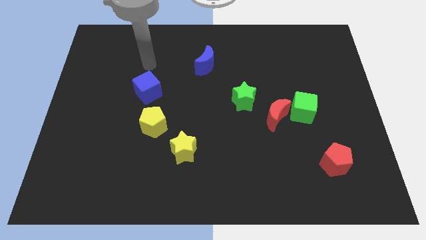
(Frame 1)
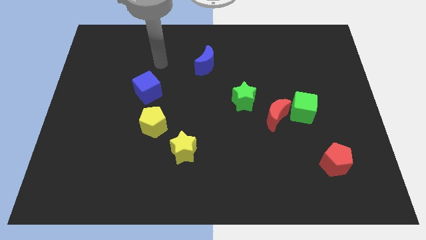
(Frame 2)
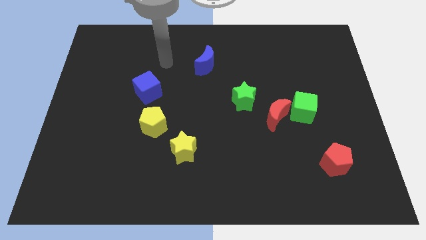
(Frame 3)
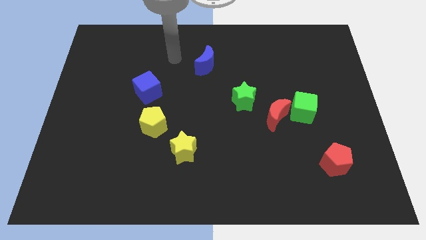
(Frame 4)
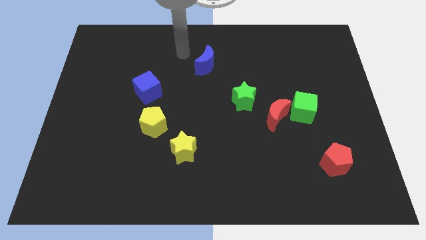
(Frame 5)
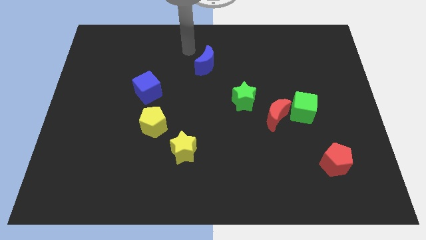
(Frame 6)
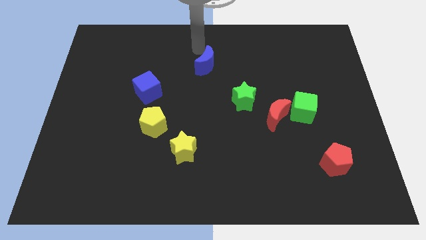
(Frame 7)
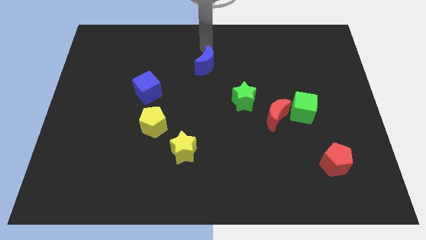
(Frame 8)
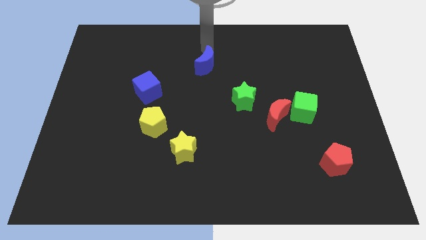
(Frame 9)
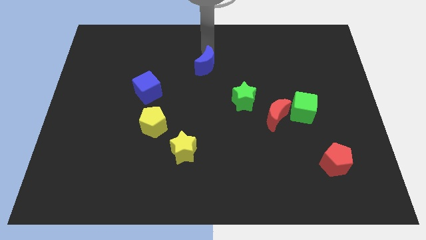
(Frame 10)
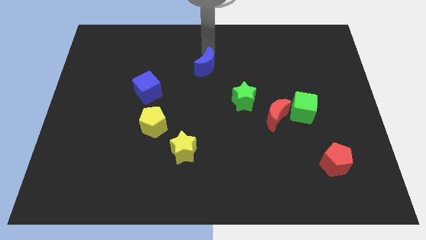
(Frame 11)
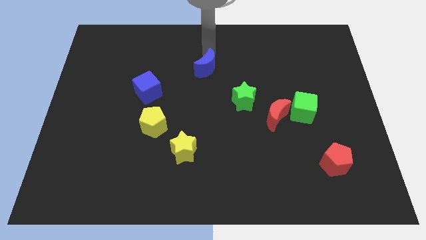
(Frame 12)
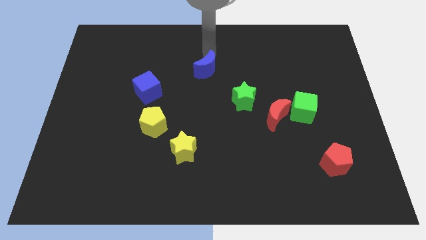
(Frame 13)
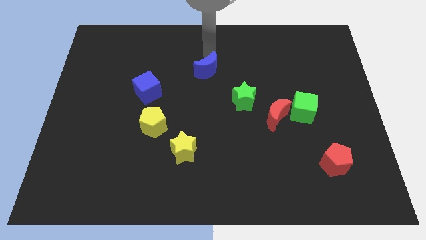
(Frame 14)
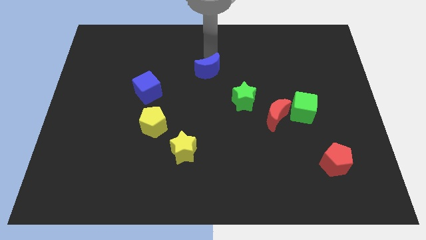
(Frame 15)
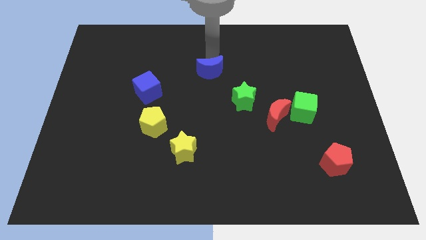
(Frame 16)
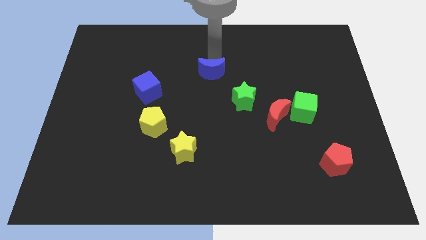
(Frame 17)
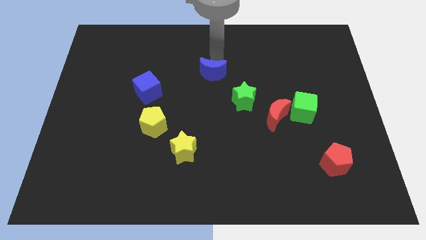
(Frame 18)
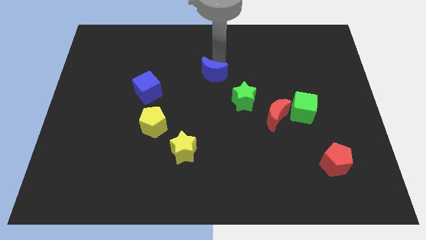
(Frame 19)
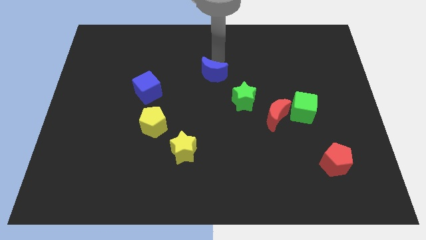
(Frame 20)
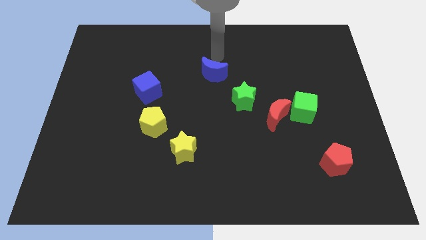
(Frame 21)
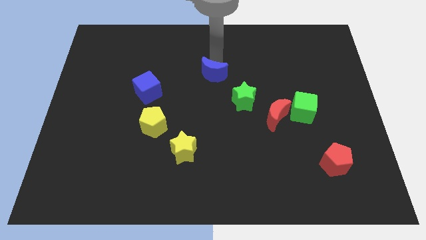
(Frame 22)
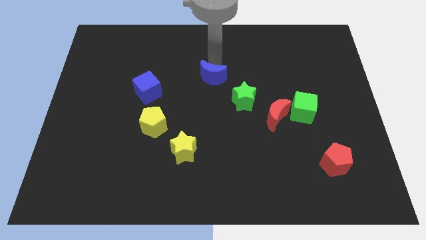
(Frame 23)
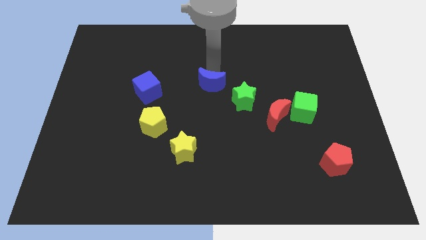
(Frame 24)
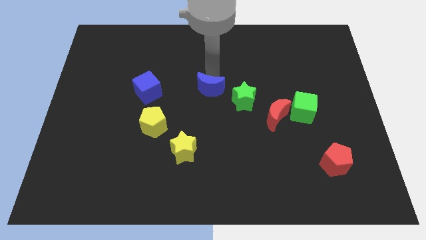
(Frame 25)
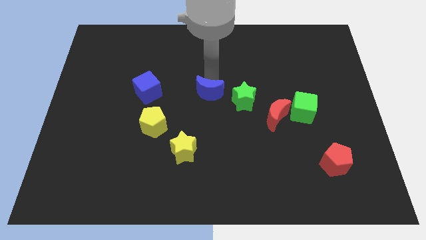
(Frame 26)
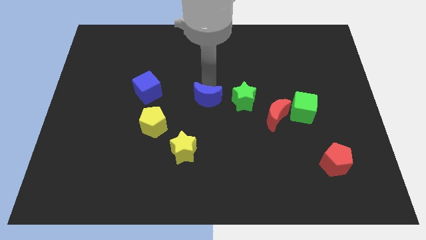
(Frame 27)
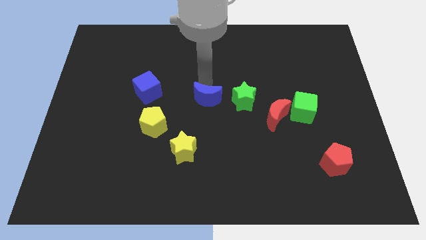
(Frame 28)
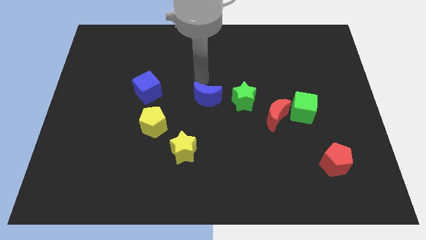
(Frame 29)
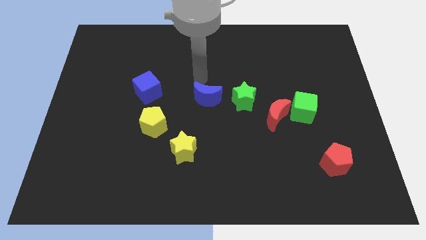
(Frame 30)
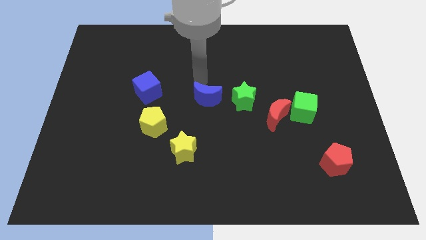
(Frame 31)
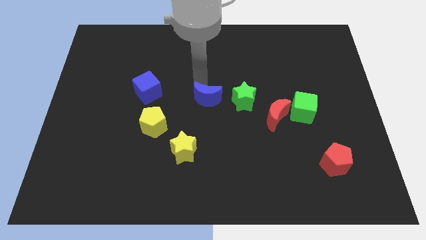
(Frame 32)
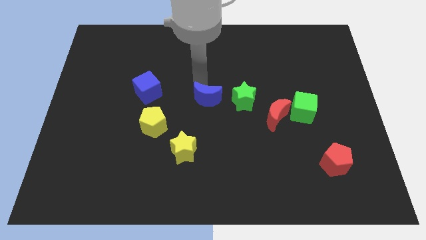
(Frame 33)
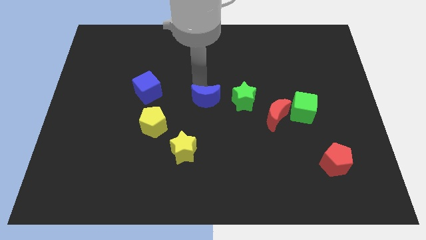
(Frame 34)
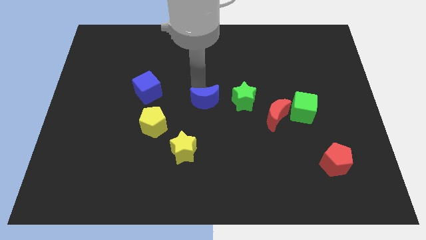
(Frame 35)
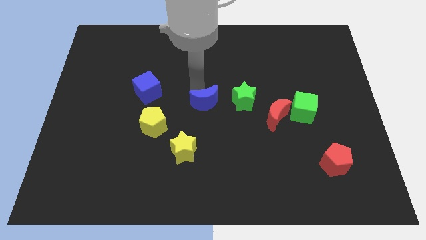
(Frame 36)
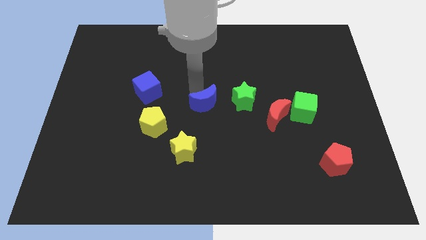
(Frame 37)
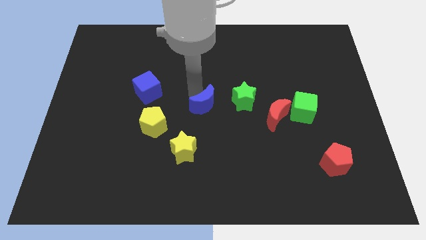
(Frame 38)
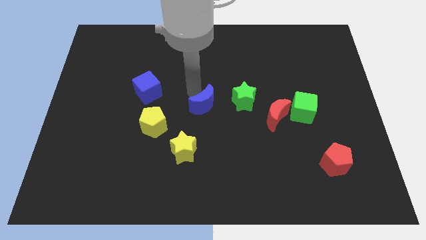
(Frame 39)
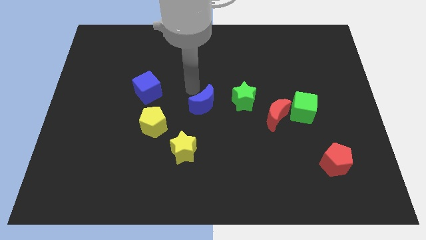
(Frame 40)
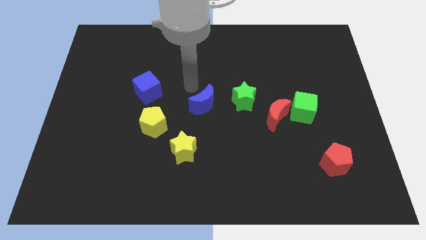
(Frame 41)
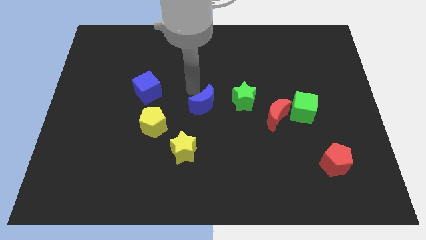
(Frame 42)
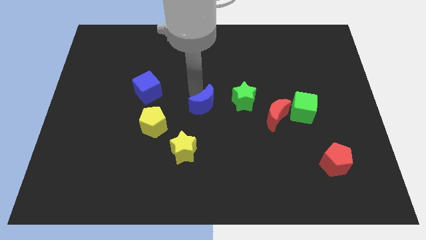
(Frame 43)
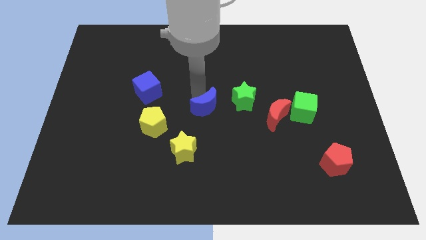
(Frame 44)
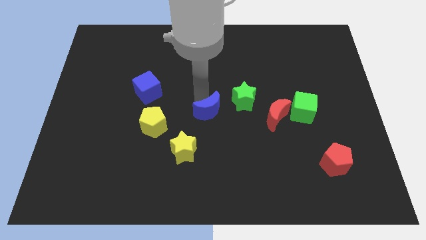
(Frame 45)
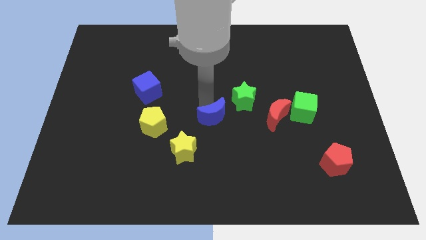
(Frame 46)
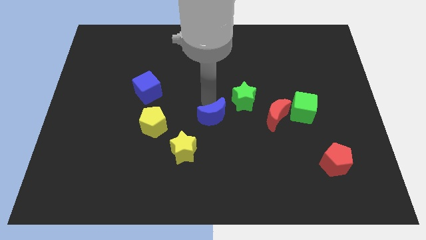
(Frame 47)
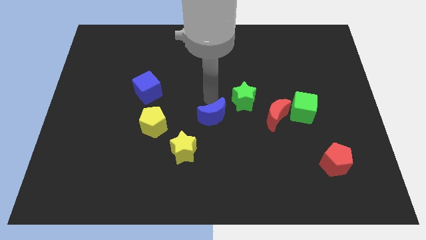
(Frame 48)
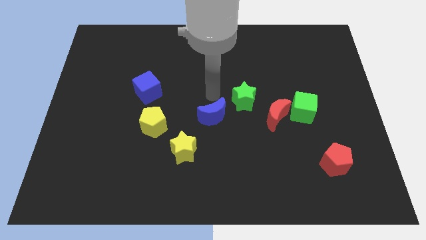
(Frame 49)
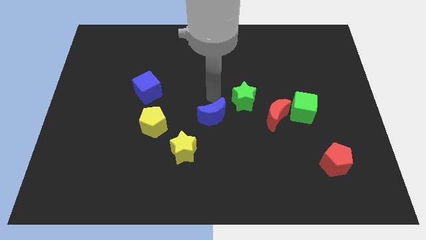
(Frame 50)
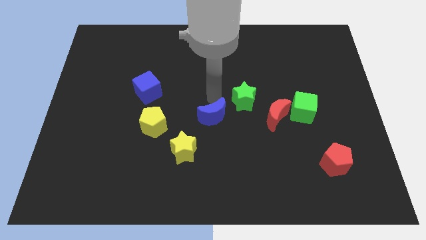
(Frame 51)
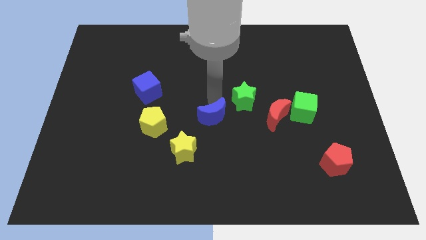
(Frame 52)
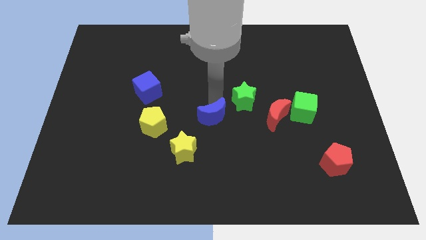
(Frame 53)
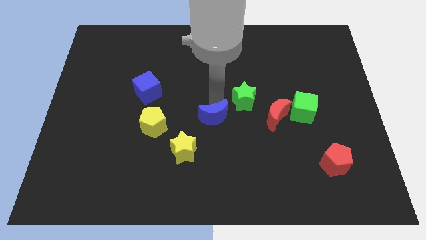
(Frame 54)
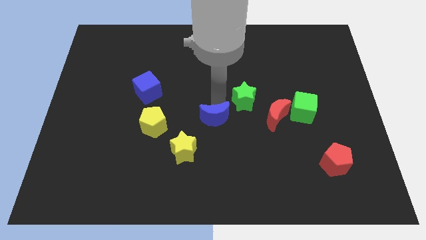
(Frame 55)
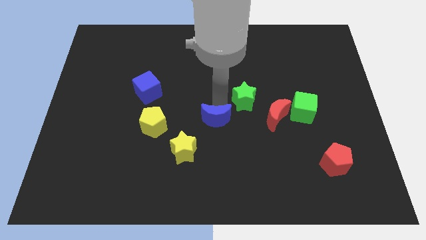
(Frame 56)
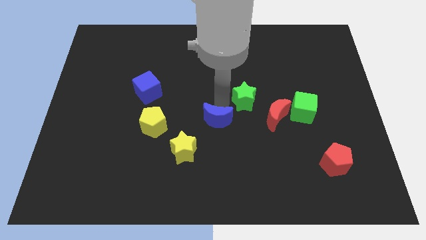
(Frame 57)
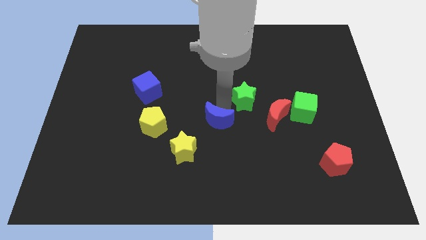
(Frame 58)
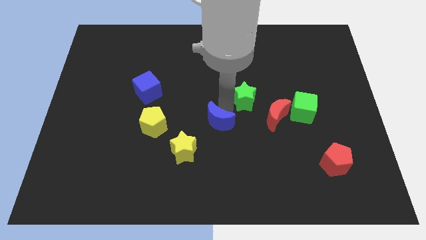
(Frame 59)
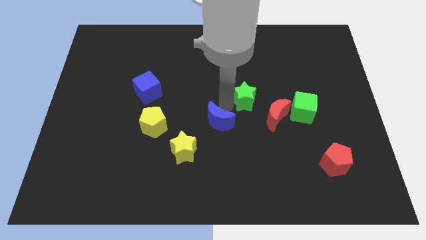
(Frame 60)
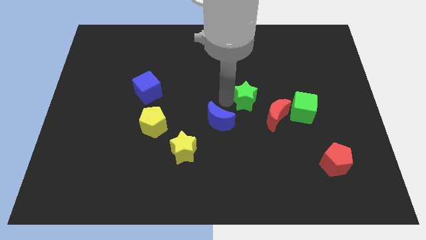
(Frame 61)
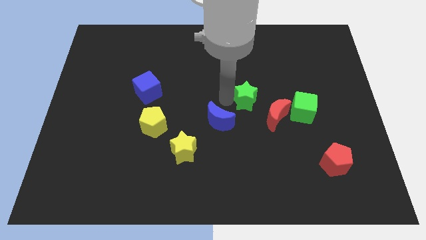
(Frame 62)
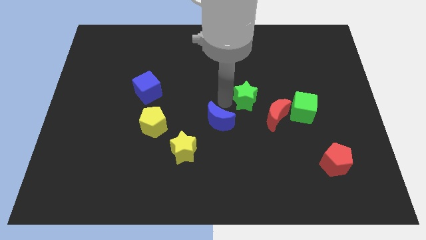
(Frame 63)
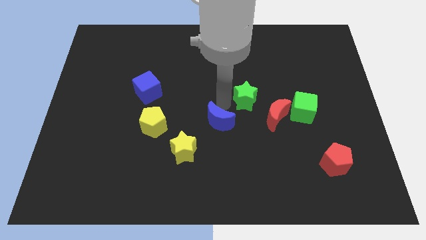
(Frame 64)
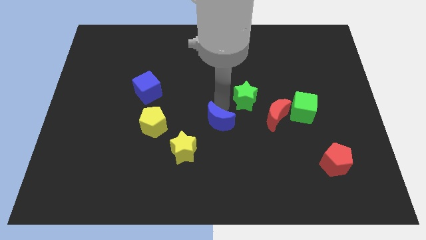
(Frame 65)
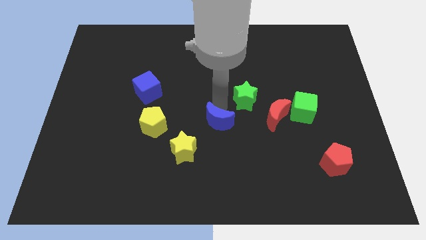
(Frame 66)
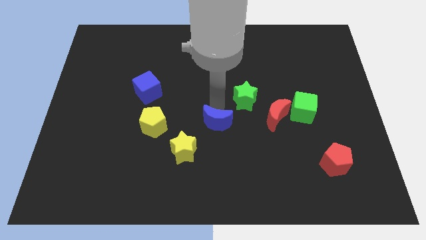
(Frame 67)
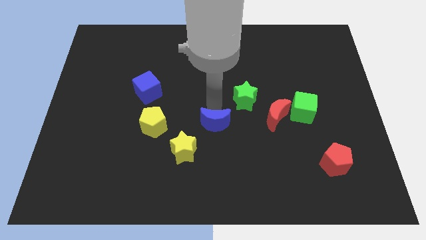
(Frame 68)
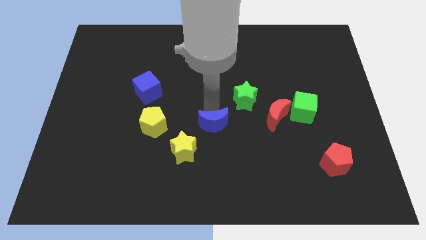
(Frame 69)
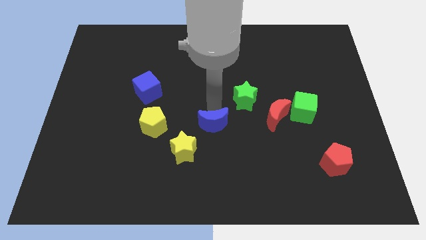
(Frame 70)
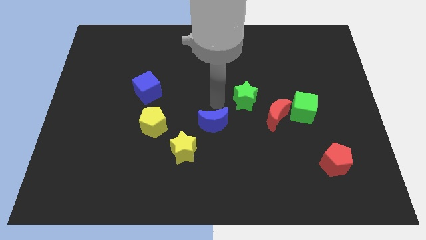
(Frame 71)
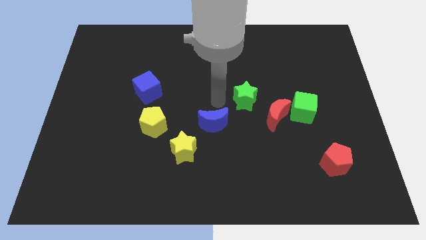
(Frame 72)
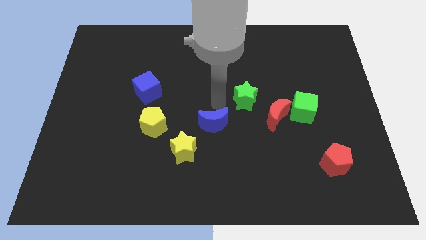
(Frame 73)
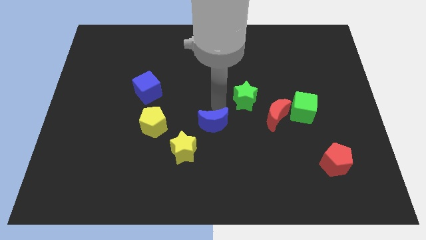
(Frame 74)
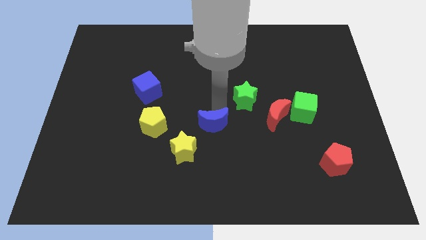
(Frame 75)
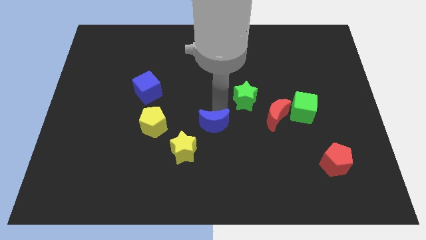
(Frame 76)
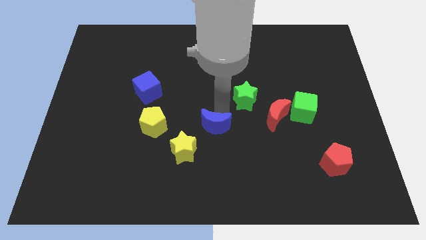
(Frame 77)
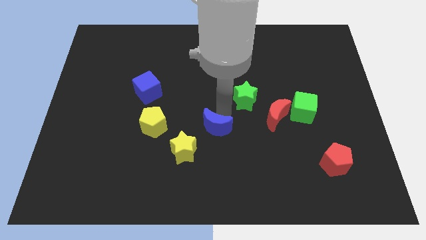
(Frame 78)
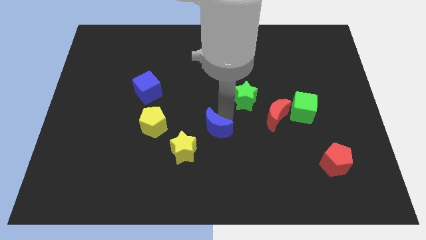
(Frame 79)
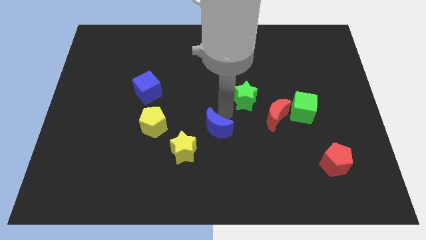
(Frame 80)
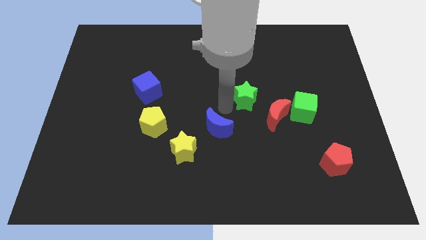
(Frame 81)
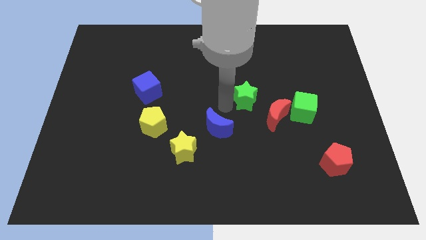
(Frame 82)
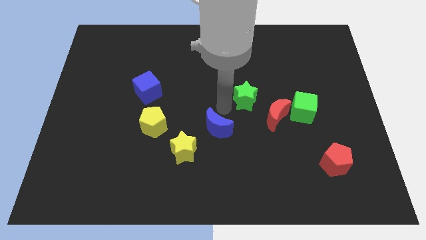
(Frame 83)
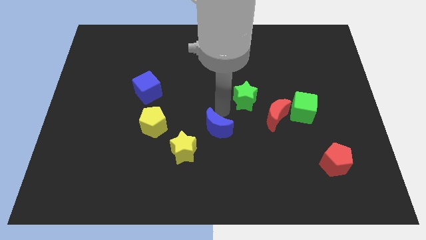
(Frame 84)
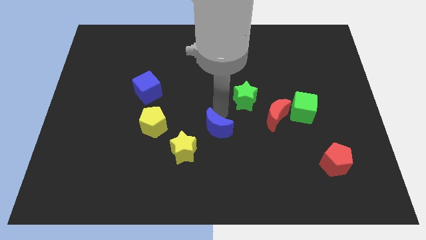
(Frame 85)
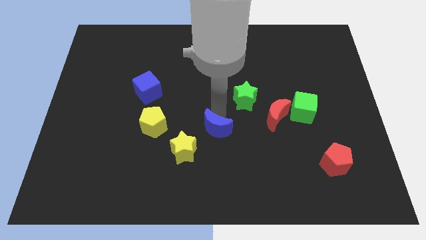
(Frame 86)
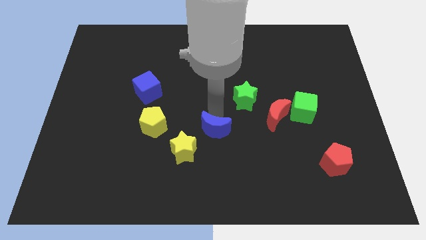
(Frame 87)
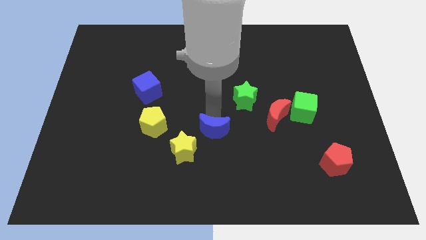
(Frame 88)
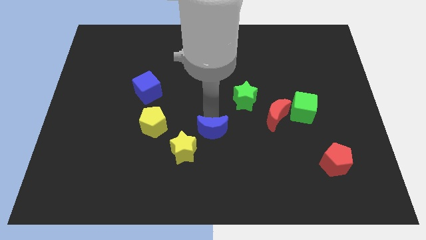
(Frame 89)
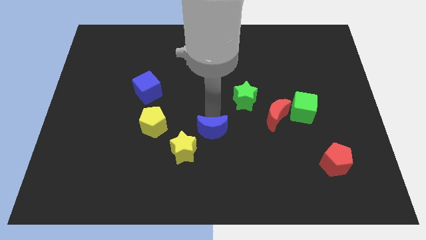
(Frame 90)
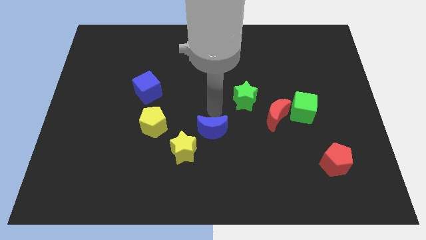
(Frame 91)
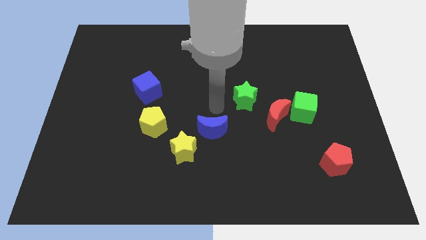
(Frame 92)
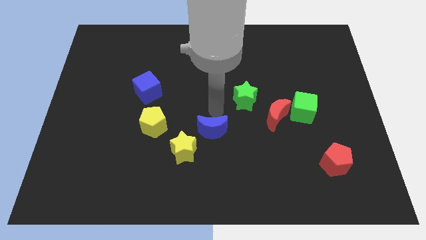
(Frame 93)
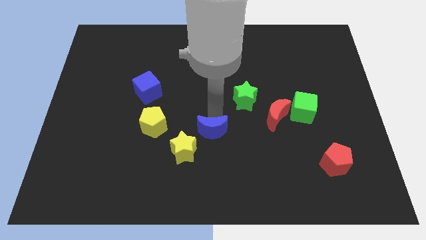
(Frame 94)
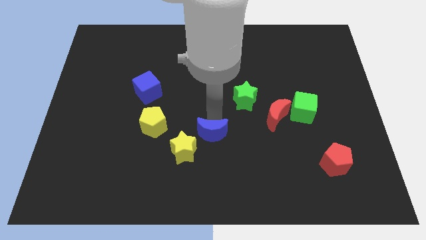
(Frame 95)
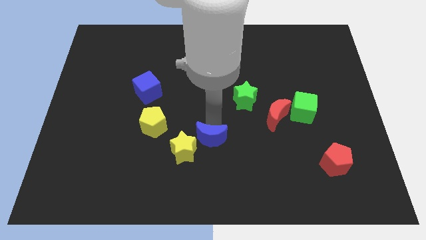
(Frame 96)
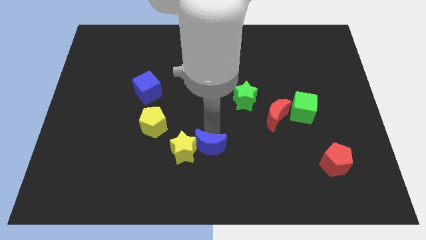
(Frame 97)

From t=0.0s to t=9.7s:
slide the blue moon to the bottom right side of the yellow star
